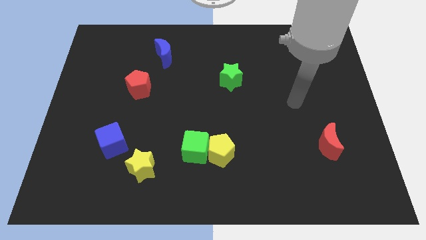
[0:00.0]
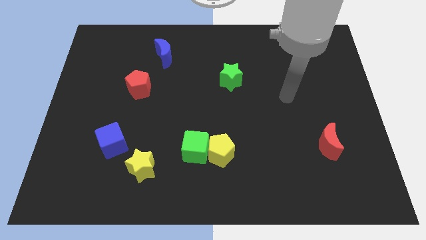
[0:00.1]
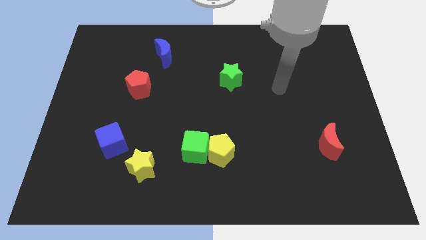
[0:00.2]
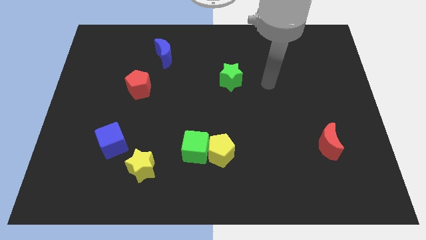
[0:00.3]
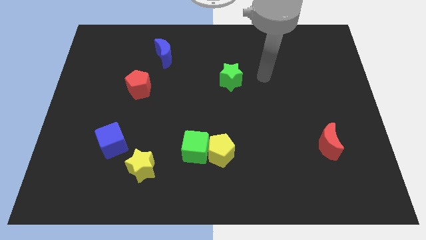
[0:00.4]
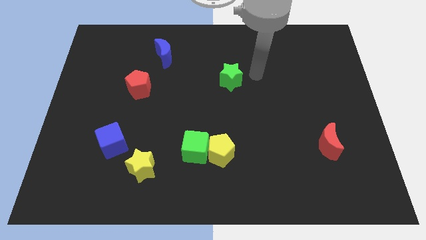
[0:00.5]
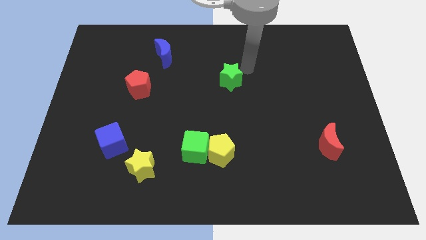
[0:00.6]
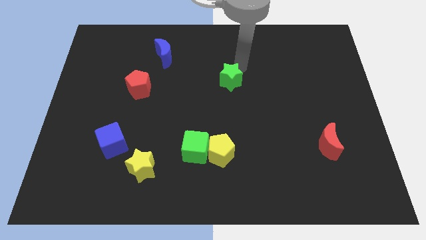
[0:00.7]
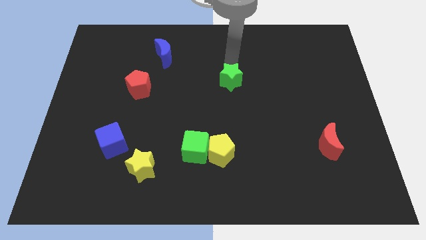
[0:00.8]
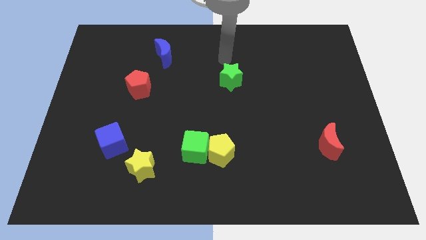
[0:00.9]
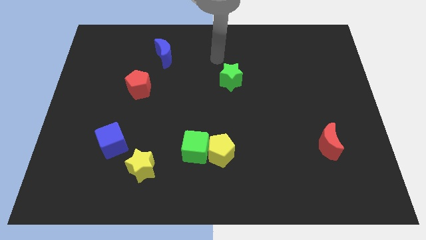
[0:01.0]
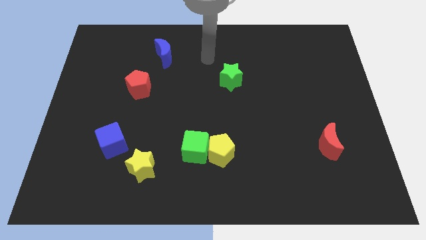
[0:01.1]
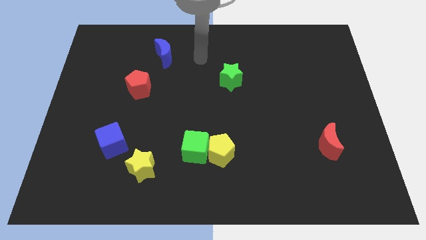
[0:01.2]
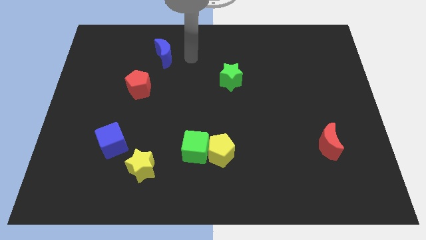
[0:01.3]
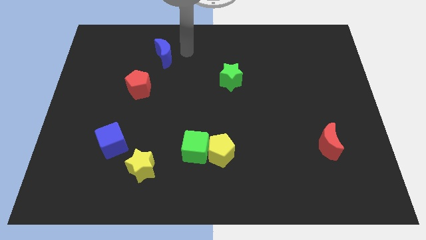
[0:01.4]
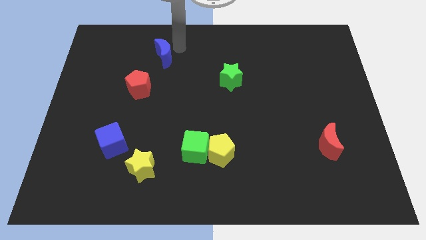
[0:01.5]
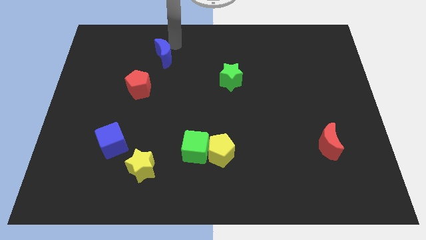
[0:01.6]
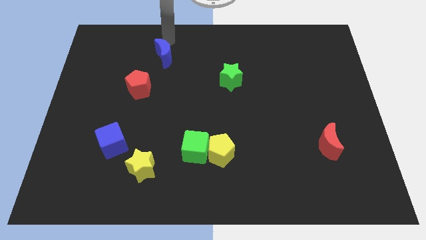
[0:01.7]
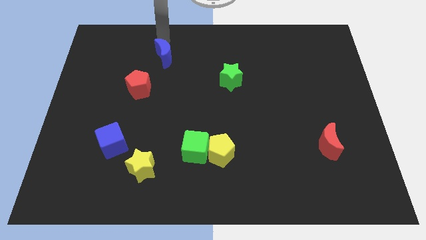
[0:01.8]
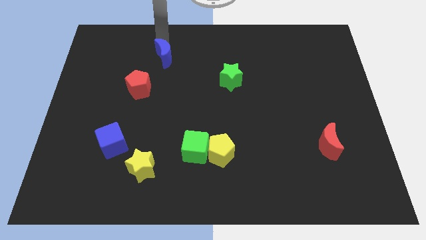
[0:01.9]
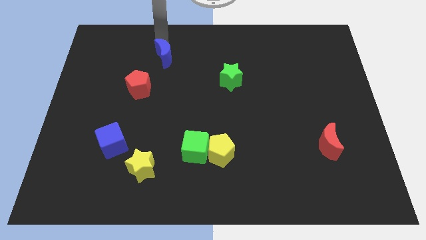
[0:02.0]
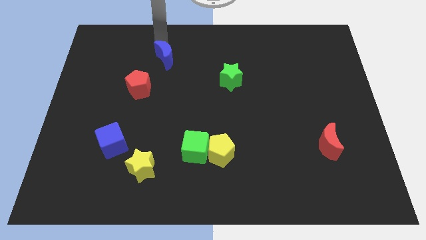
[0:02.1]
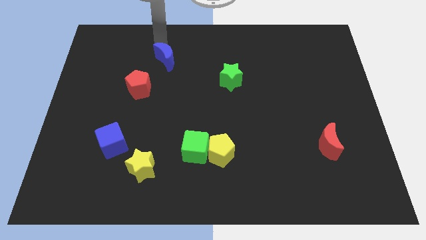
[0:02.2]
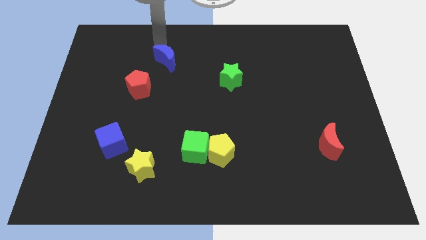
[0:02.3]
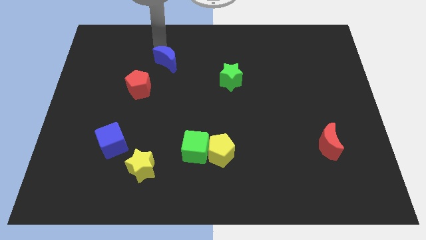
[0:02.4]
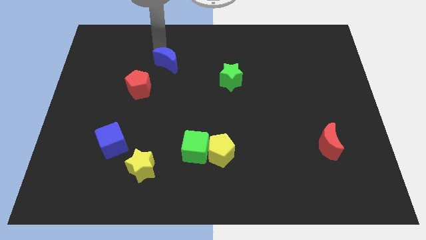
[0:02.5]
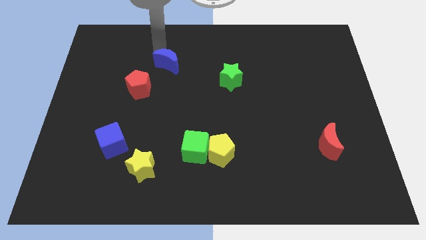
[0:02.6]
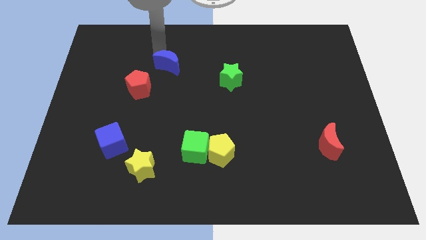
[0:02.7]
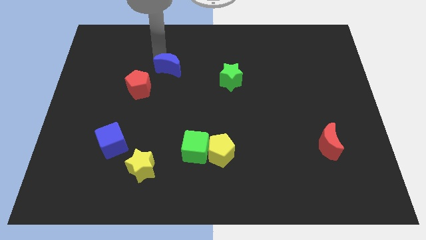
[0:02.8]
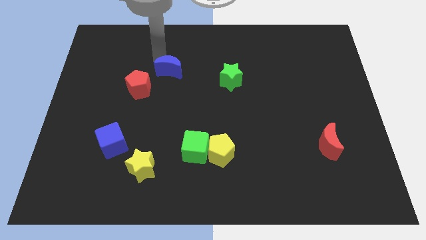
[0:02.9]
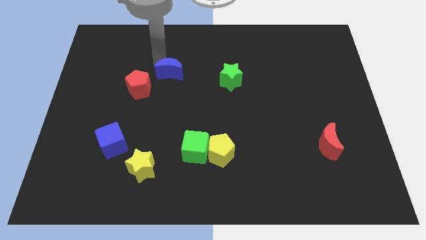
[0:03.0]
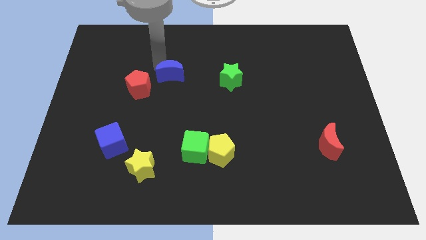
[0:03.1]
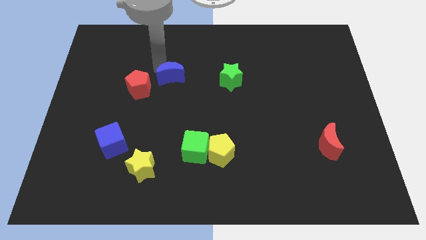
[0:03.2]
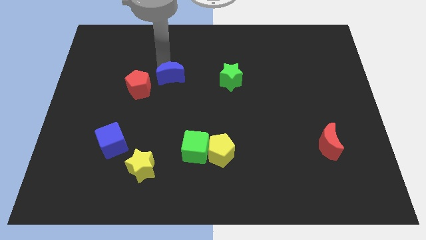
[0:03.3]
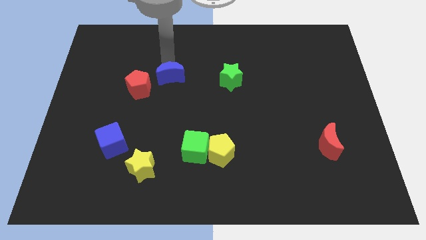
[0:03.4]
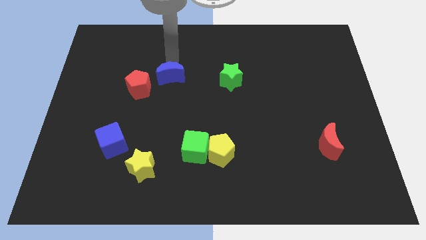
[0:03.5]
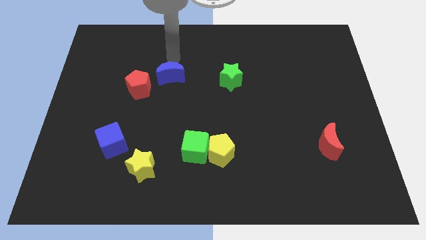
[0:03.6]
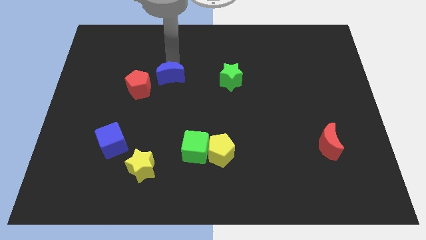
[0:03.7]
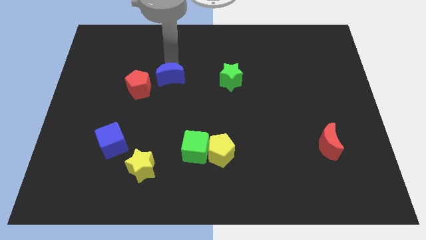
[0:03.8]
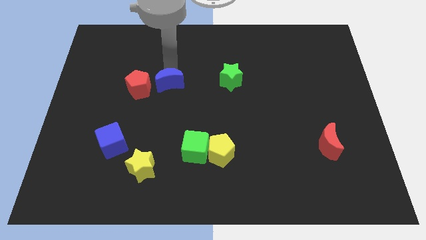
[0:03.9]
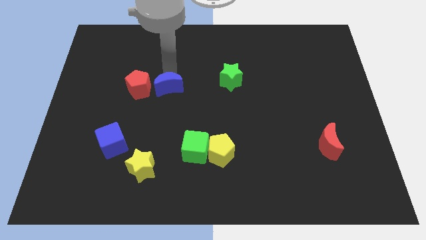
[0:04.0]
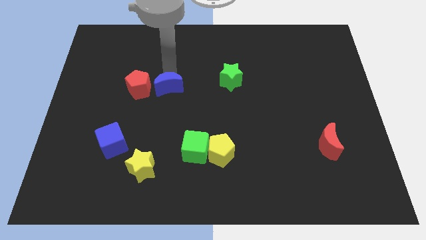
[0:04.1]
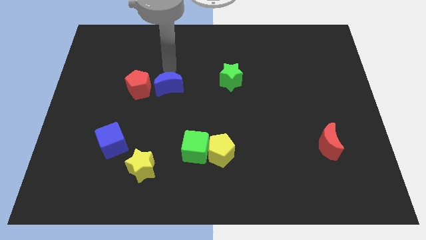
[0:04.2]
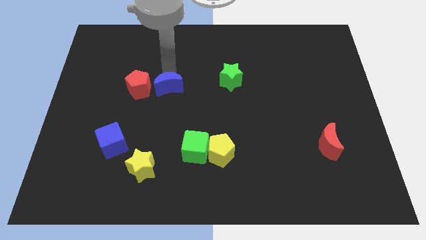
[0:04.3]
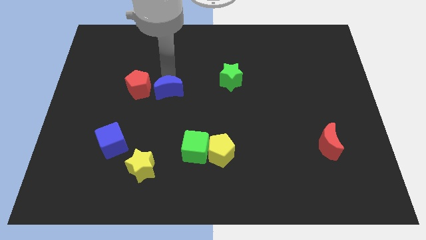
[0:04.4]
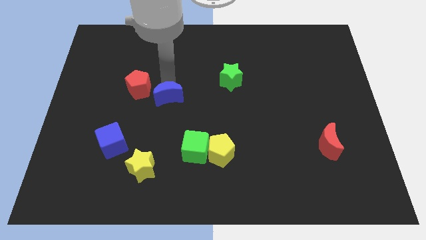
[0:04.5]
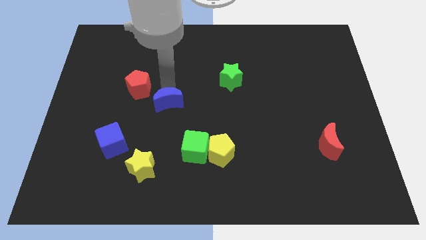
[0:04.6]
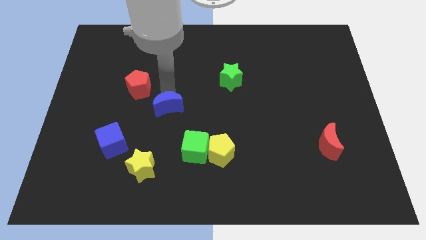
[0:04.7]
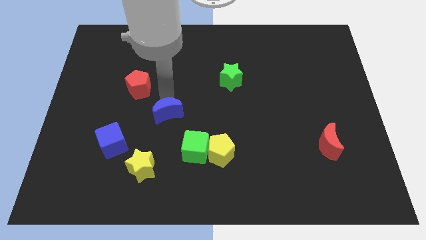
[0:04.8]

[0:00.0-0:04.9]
slide the blue moon to the top left side of the green cube

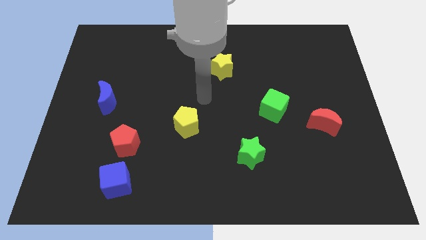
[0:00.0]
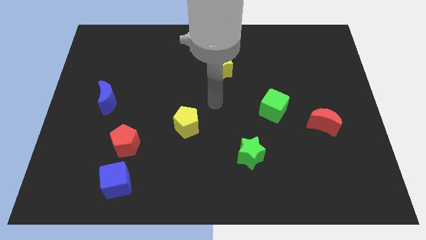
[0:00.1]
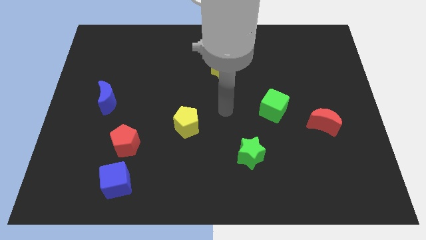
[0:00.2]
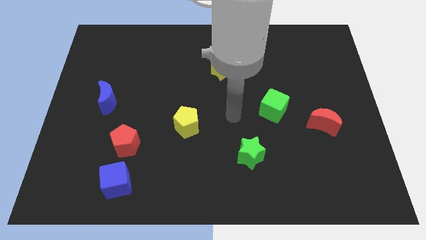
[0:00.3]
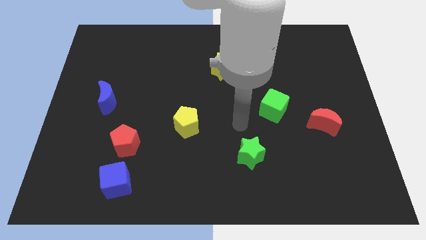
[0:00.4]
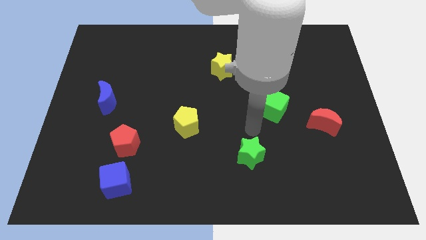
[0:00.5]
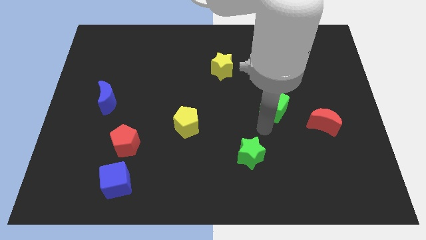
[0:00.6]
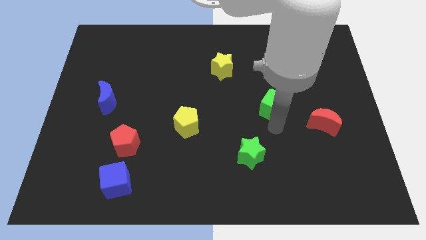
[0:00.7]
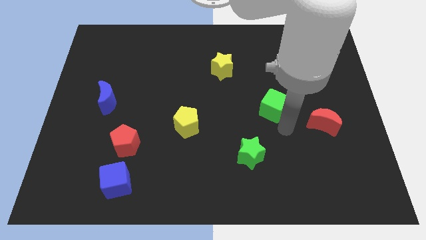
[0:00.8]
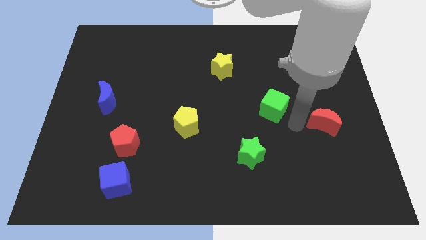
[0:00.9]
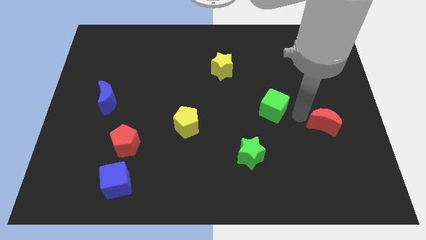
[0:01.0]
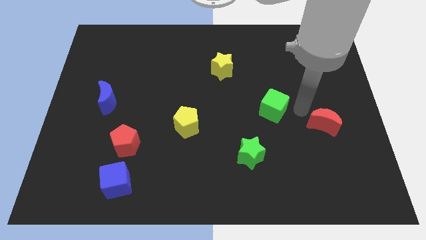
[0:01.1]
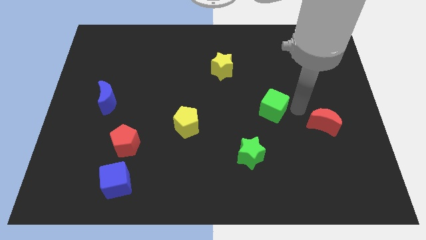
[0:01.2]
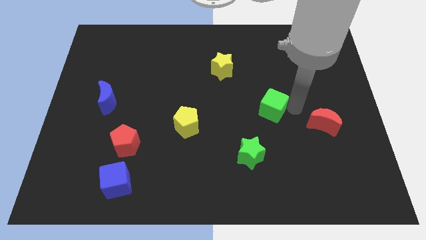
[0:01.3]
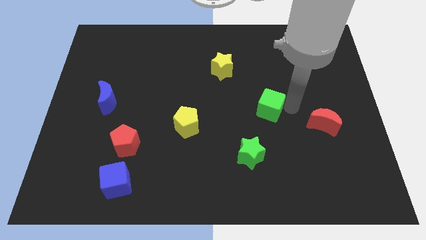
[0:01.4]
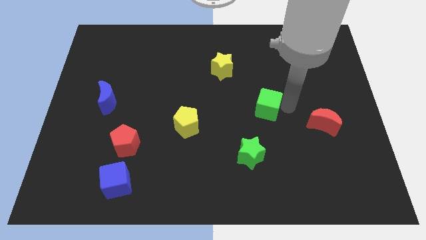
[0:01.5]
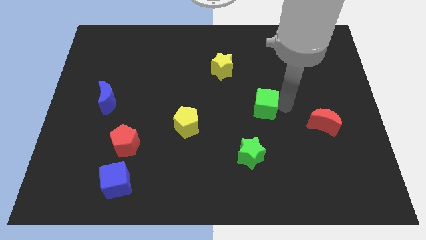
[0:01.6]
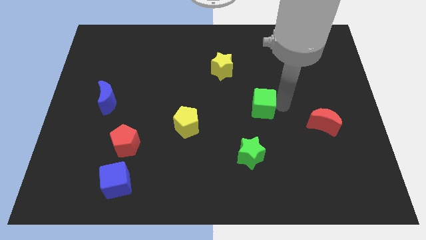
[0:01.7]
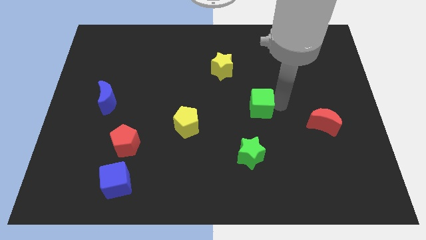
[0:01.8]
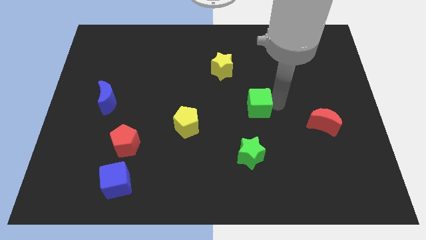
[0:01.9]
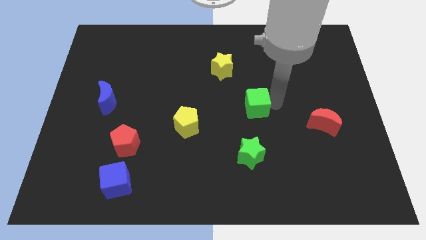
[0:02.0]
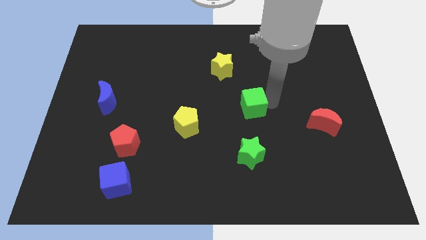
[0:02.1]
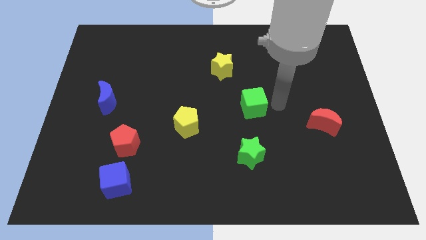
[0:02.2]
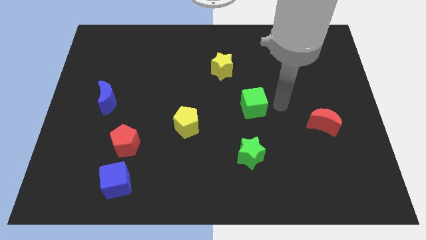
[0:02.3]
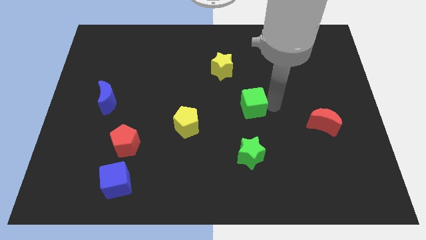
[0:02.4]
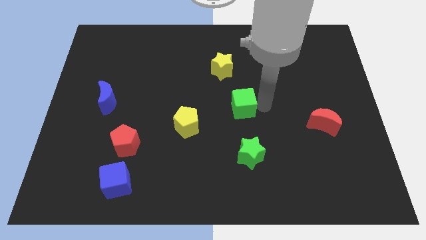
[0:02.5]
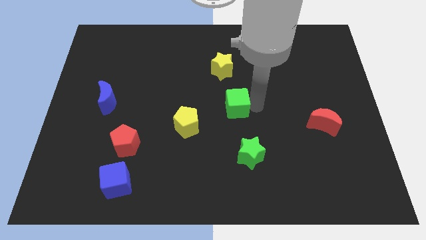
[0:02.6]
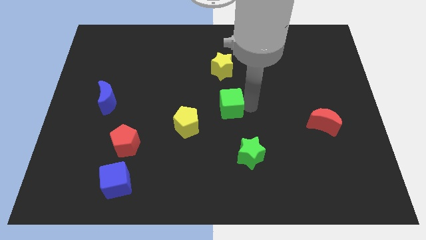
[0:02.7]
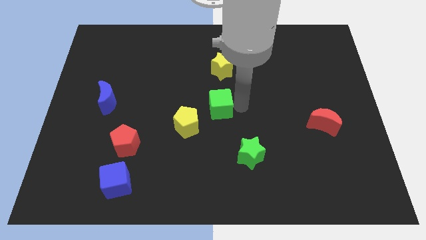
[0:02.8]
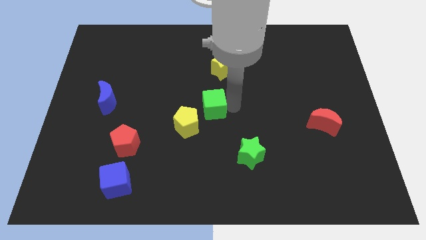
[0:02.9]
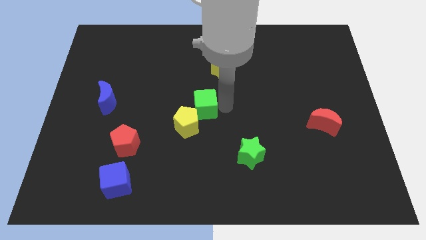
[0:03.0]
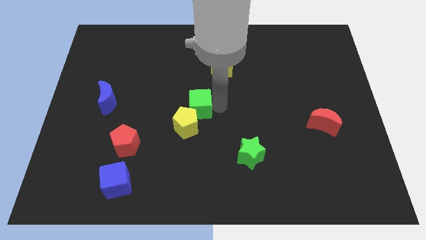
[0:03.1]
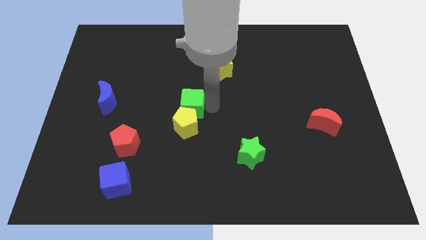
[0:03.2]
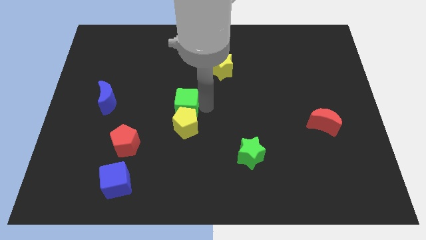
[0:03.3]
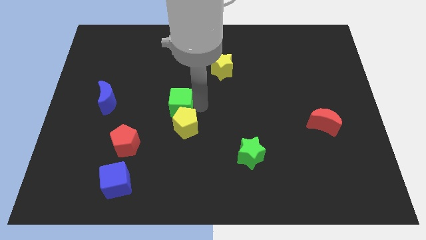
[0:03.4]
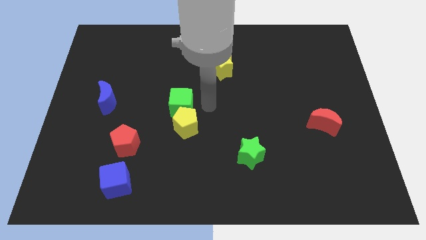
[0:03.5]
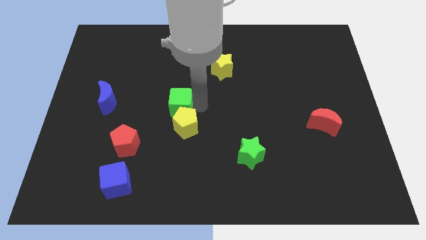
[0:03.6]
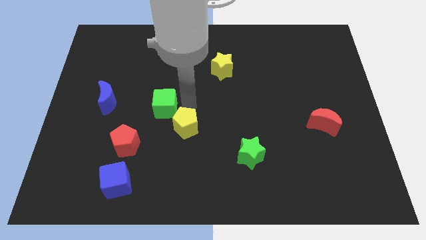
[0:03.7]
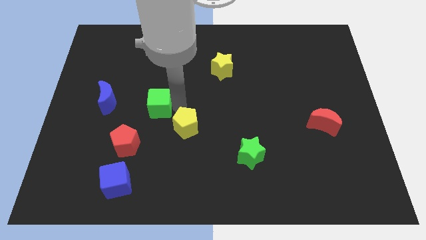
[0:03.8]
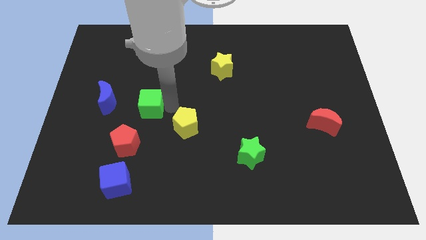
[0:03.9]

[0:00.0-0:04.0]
move the green cube to the top side of the red pentagon
